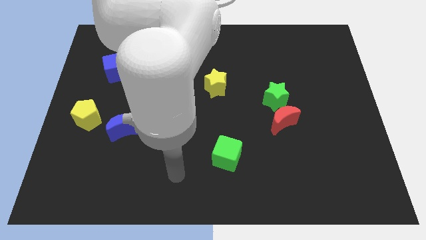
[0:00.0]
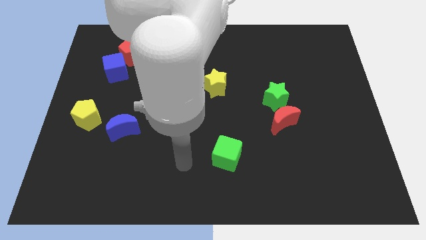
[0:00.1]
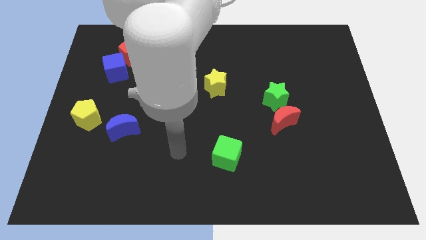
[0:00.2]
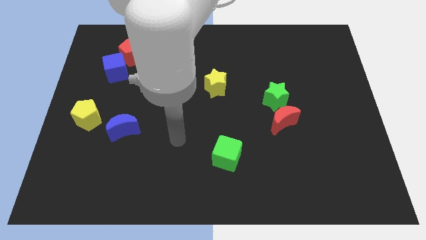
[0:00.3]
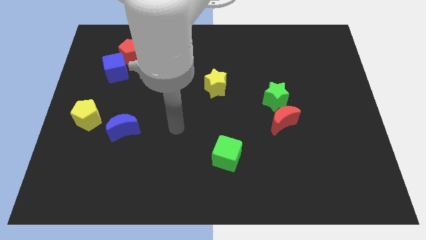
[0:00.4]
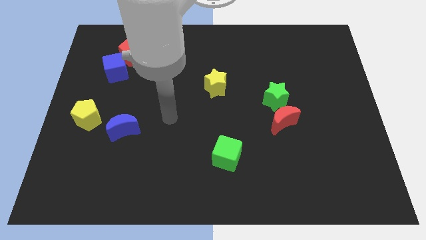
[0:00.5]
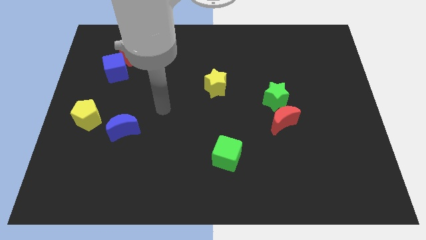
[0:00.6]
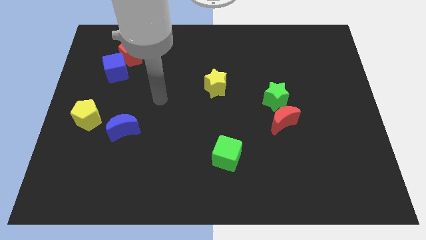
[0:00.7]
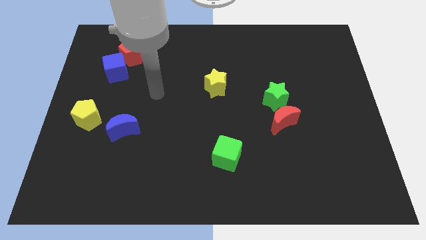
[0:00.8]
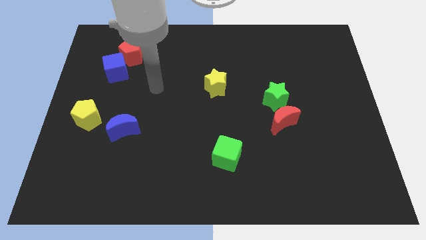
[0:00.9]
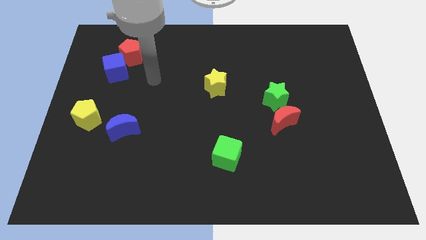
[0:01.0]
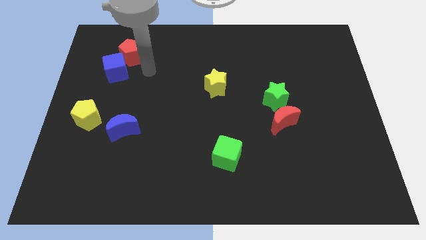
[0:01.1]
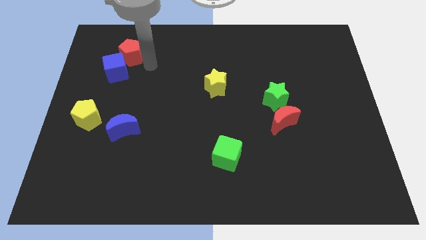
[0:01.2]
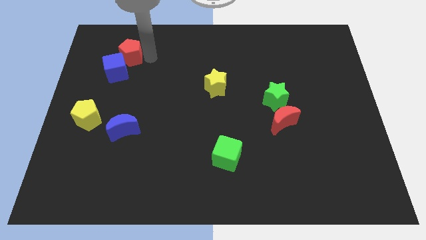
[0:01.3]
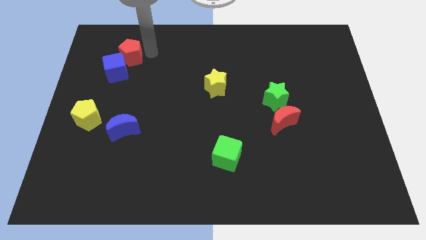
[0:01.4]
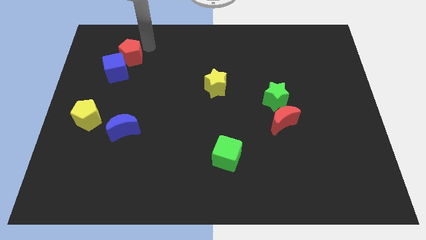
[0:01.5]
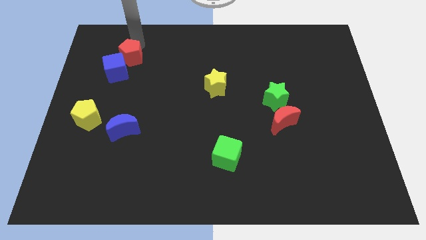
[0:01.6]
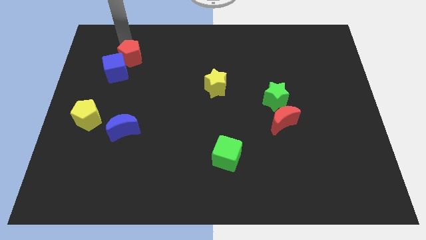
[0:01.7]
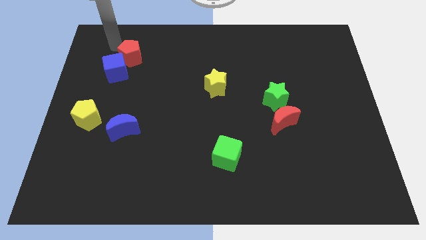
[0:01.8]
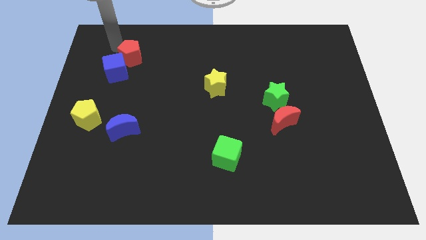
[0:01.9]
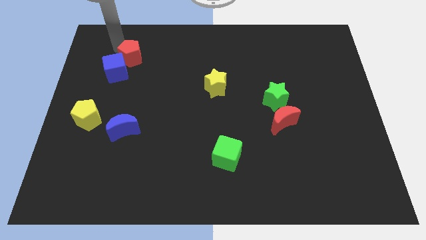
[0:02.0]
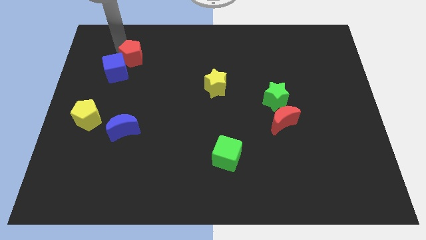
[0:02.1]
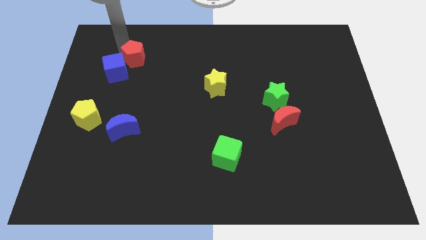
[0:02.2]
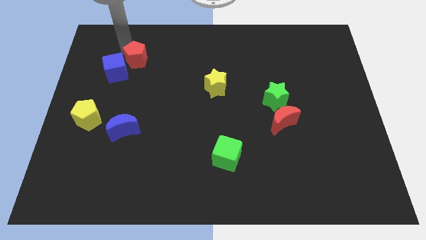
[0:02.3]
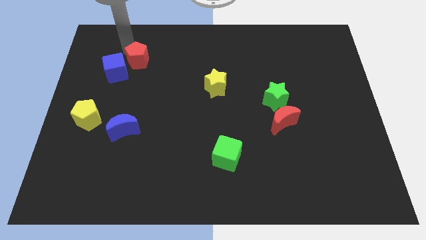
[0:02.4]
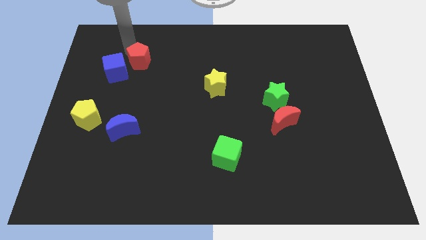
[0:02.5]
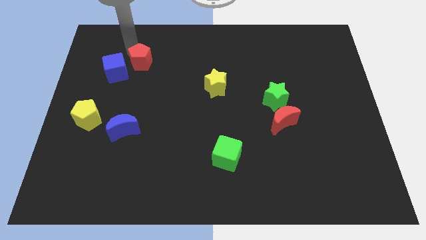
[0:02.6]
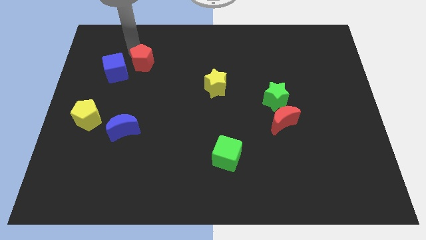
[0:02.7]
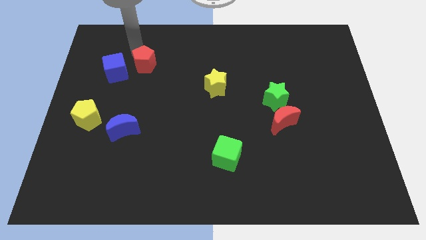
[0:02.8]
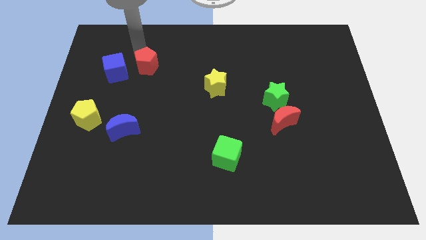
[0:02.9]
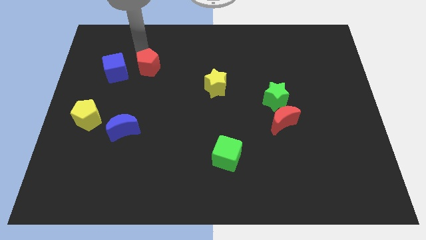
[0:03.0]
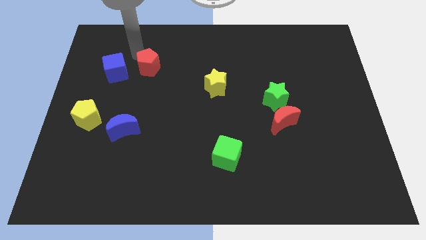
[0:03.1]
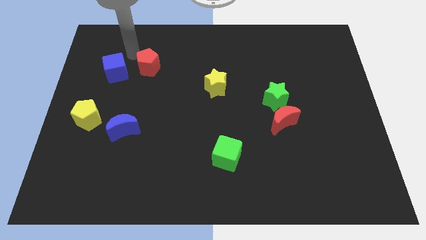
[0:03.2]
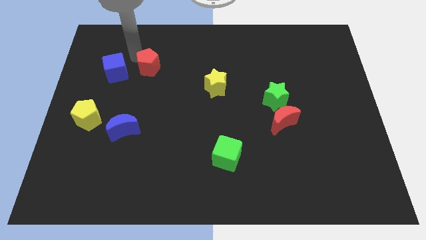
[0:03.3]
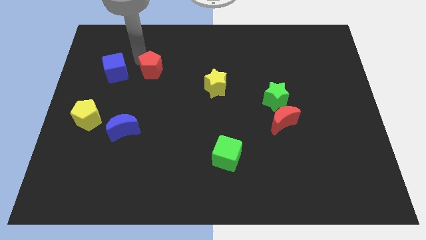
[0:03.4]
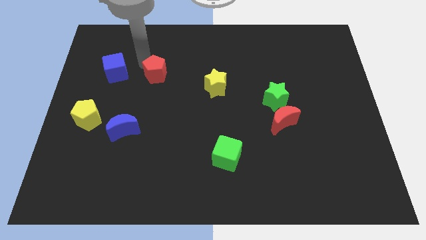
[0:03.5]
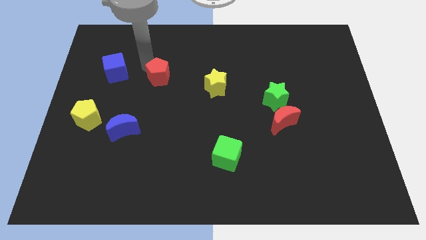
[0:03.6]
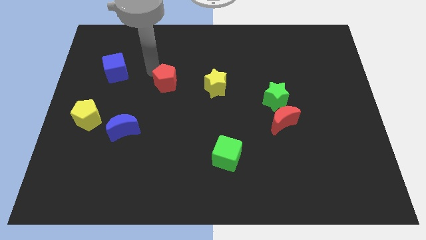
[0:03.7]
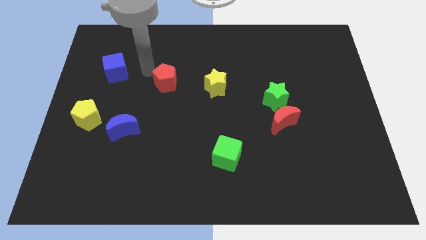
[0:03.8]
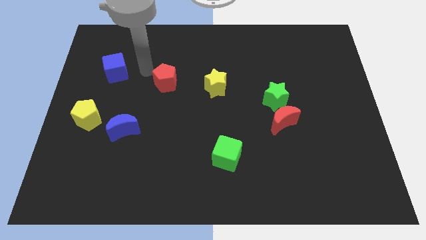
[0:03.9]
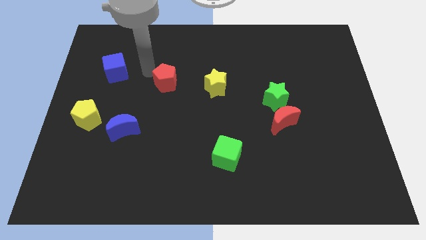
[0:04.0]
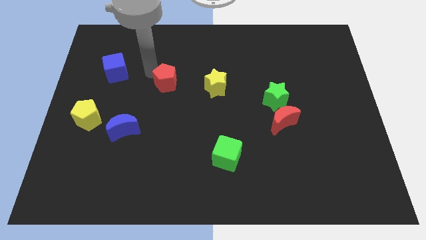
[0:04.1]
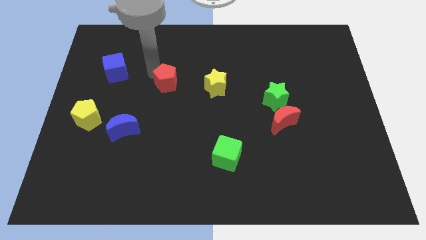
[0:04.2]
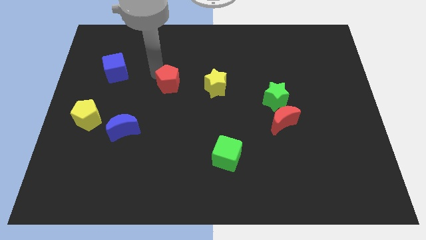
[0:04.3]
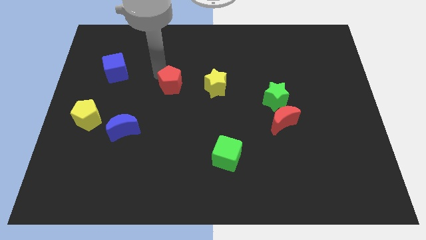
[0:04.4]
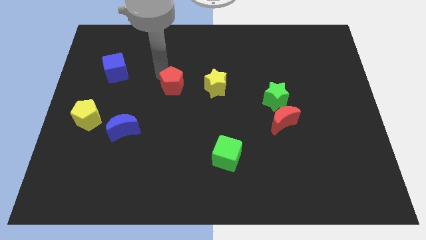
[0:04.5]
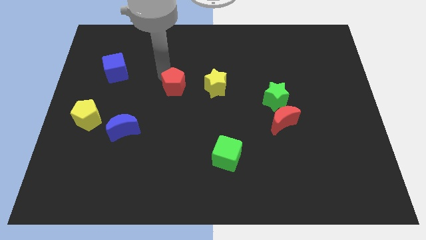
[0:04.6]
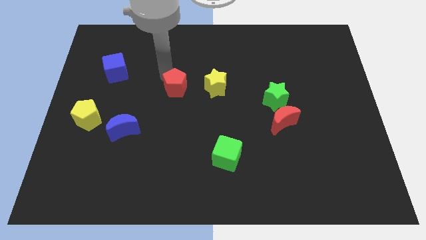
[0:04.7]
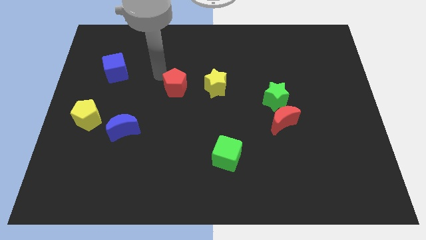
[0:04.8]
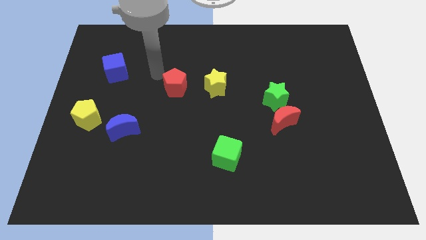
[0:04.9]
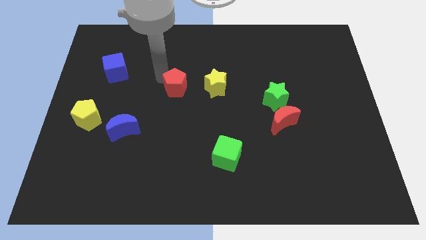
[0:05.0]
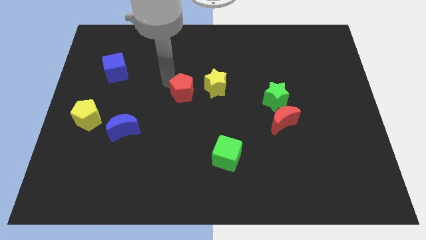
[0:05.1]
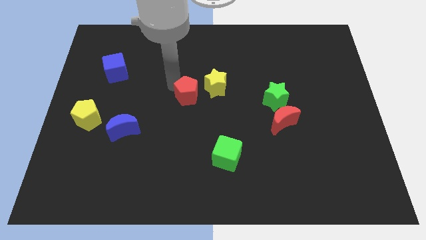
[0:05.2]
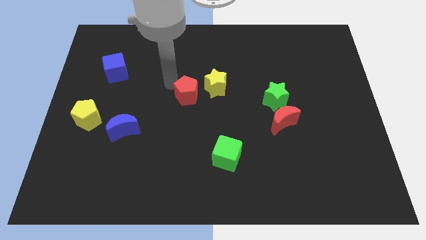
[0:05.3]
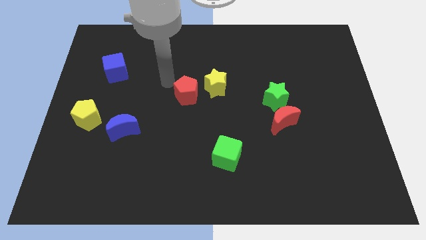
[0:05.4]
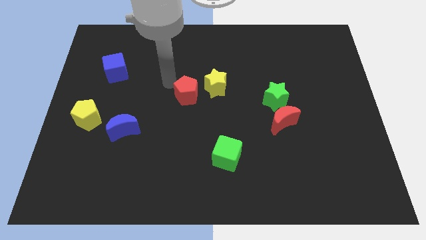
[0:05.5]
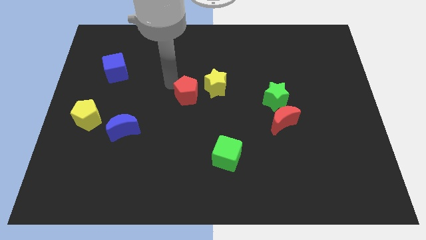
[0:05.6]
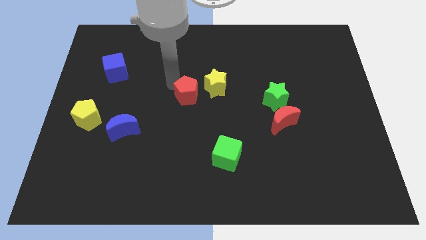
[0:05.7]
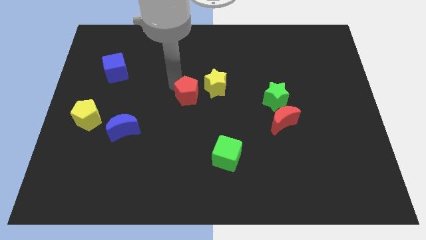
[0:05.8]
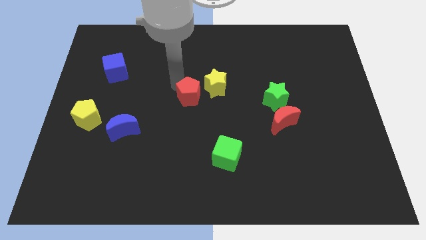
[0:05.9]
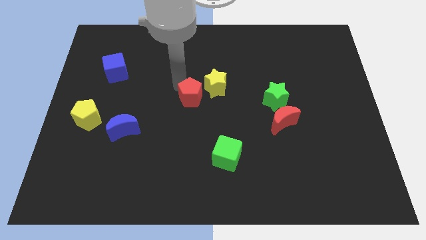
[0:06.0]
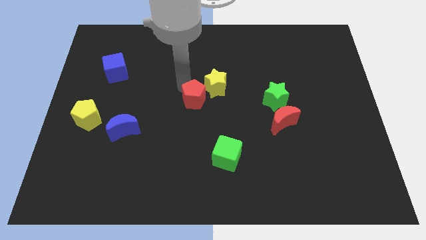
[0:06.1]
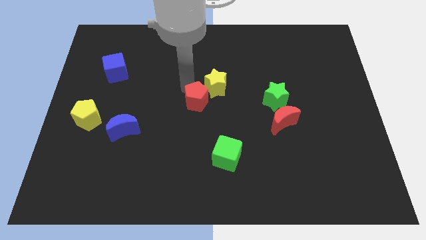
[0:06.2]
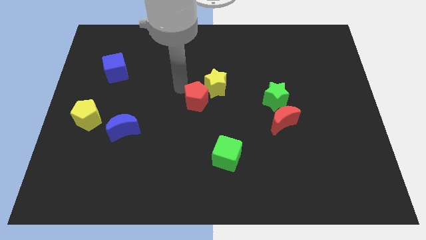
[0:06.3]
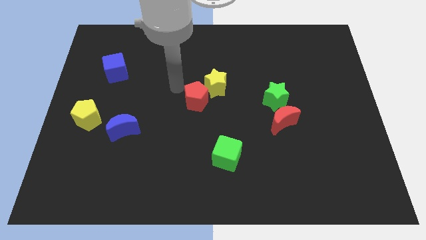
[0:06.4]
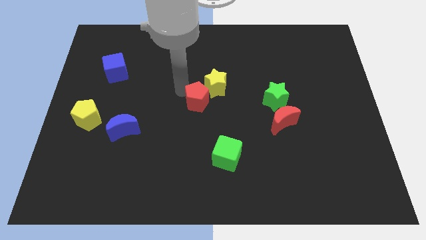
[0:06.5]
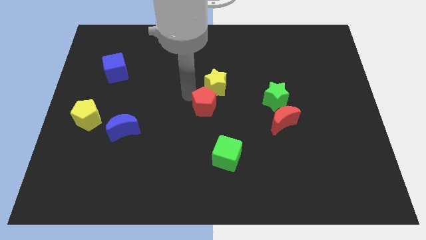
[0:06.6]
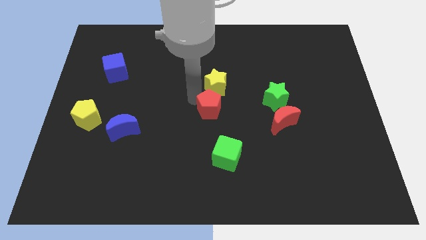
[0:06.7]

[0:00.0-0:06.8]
put the red pentagon to the top side of the green cube
